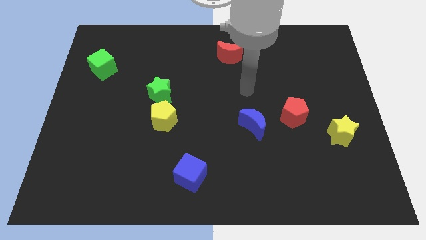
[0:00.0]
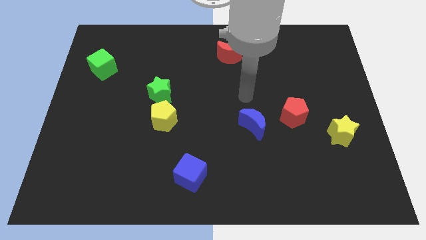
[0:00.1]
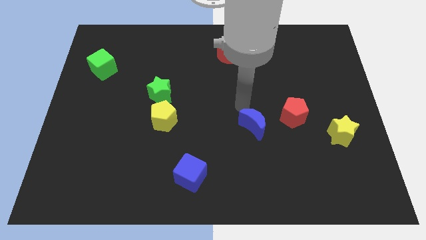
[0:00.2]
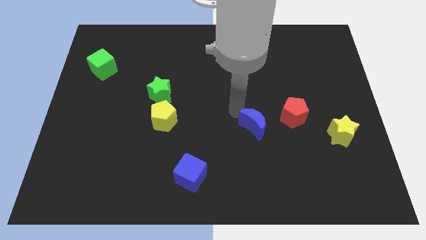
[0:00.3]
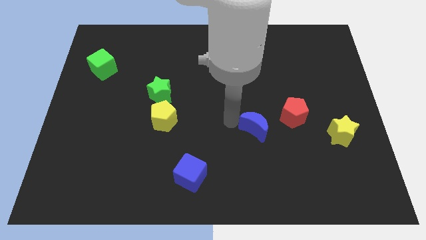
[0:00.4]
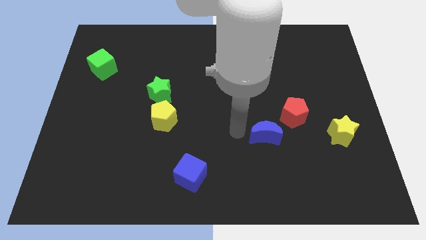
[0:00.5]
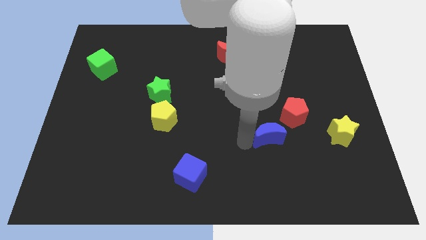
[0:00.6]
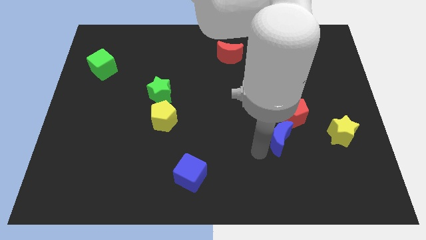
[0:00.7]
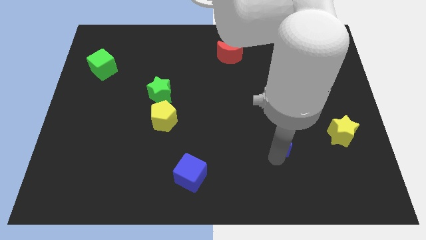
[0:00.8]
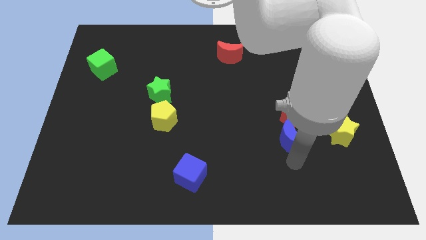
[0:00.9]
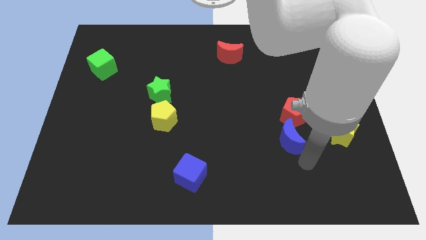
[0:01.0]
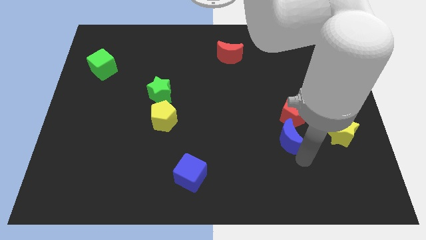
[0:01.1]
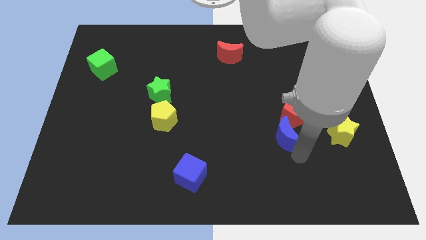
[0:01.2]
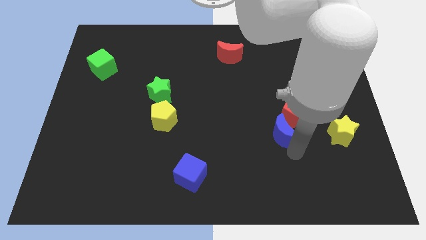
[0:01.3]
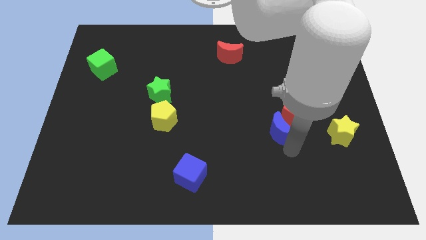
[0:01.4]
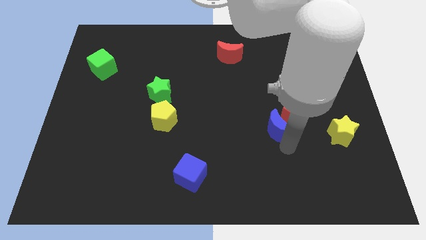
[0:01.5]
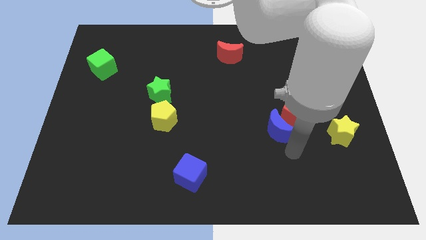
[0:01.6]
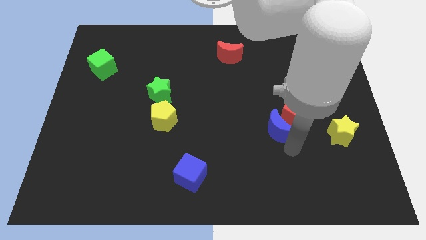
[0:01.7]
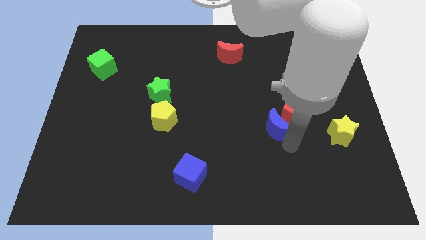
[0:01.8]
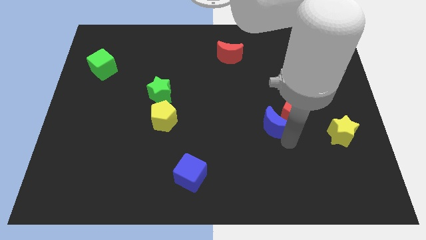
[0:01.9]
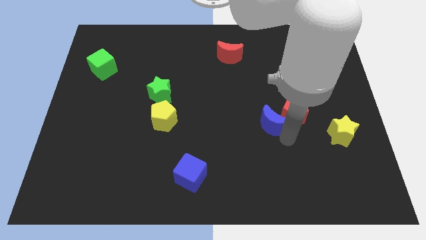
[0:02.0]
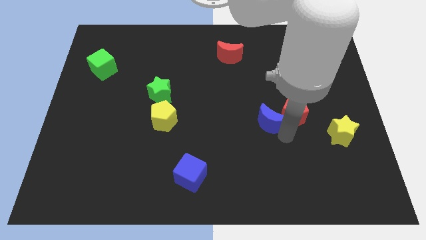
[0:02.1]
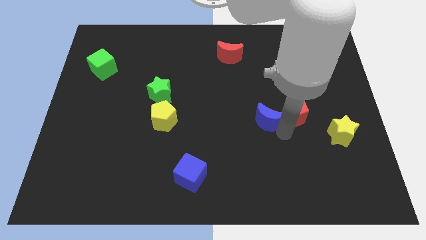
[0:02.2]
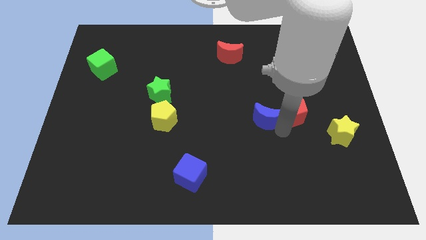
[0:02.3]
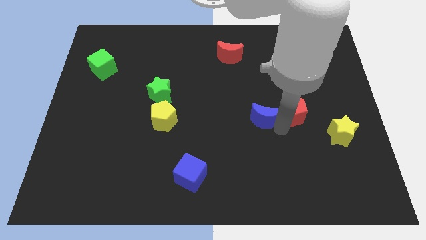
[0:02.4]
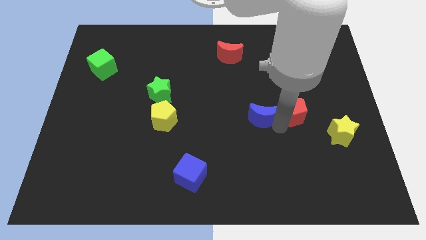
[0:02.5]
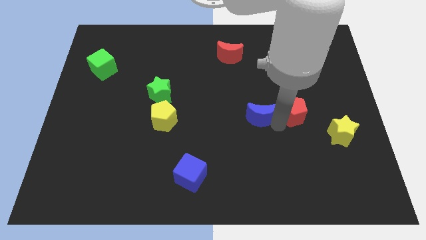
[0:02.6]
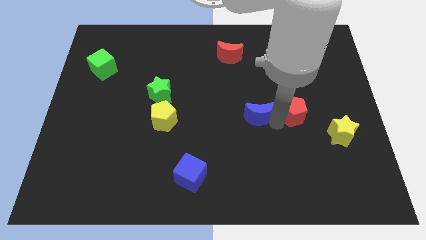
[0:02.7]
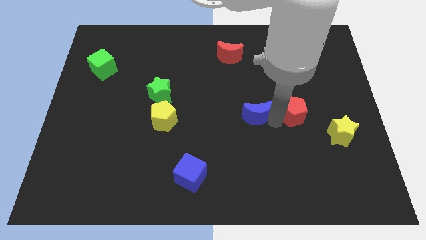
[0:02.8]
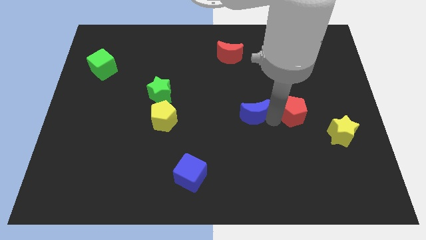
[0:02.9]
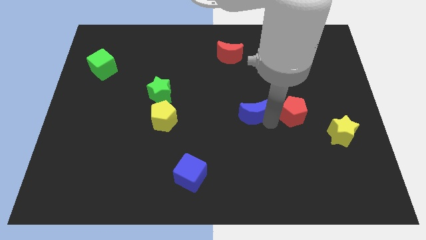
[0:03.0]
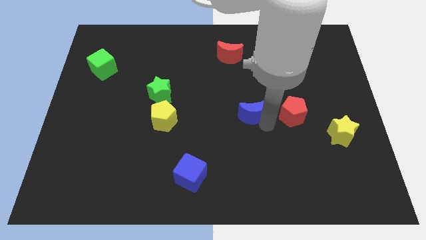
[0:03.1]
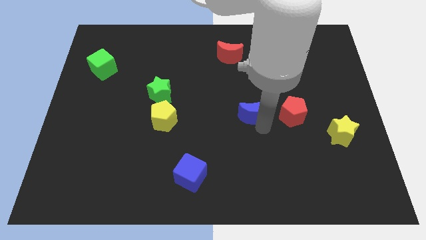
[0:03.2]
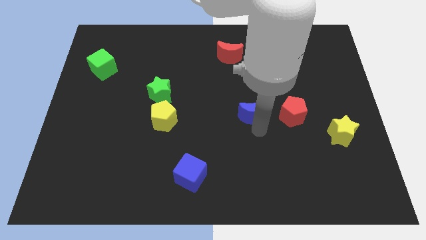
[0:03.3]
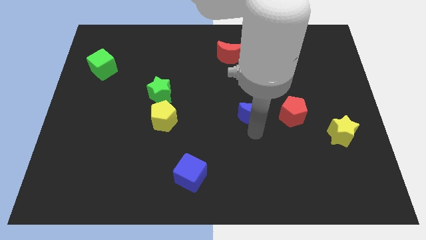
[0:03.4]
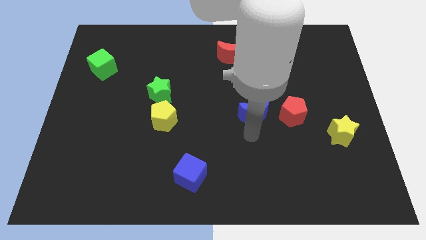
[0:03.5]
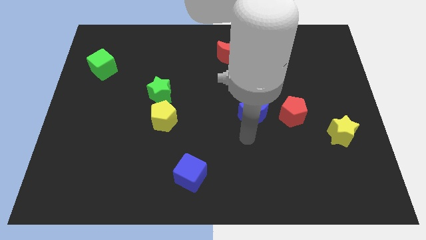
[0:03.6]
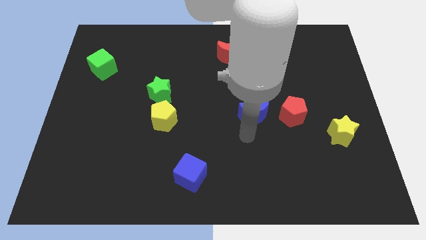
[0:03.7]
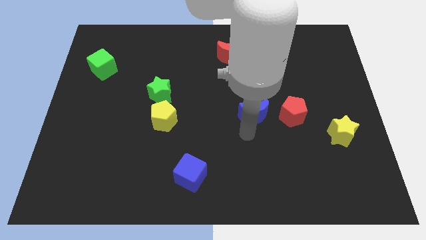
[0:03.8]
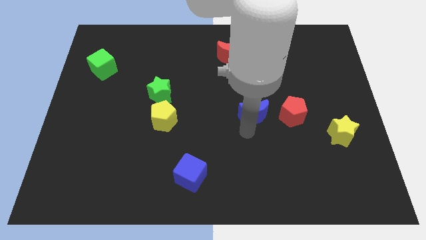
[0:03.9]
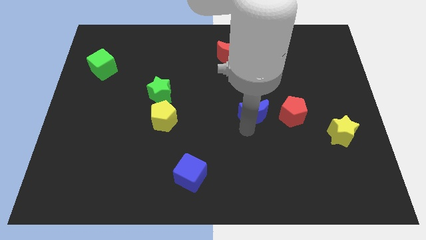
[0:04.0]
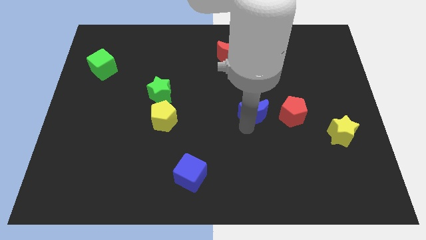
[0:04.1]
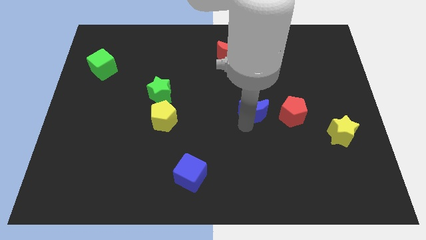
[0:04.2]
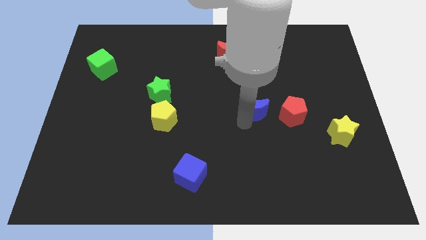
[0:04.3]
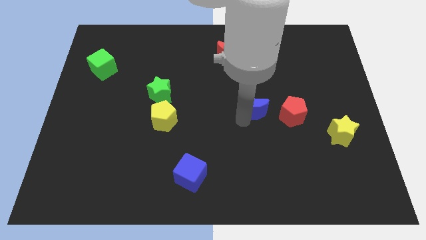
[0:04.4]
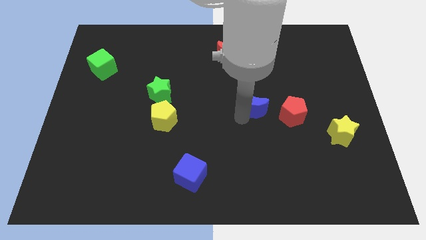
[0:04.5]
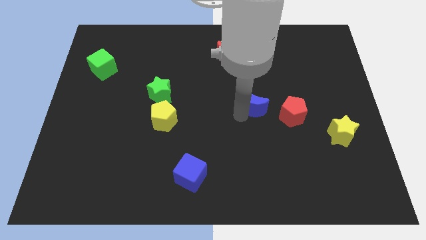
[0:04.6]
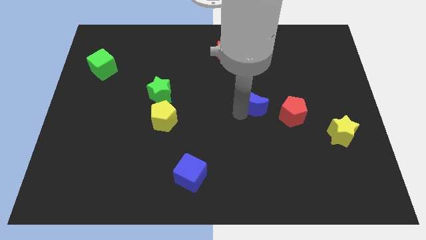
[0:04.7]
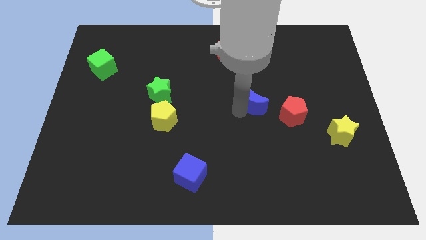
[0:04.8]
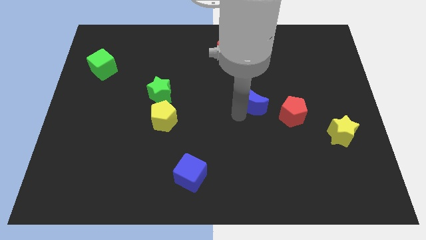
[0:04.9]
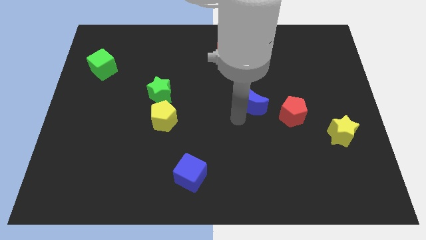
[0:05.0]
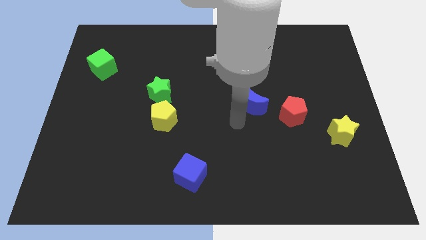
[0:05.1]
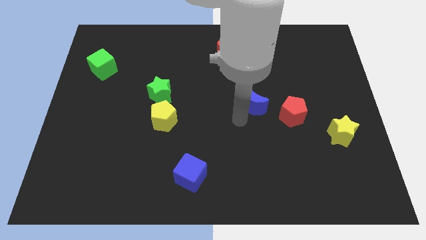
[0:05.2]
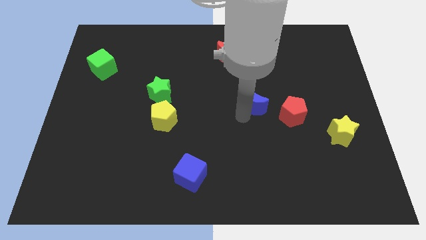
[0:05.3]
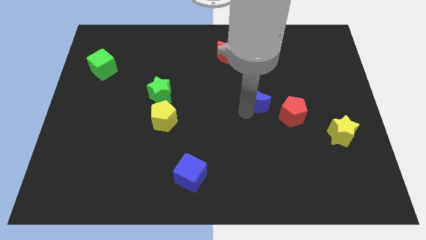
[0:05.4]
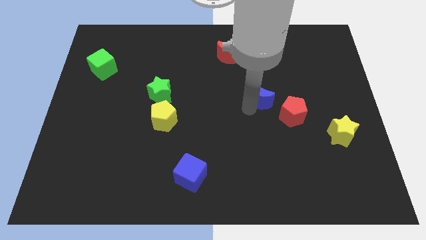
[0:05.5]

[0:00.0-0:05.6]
push the blue moon slightly up

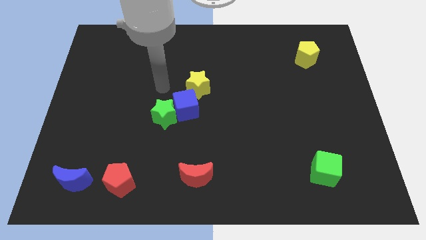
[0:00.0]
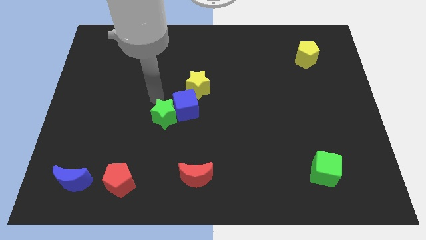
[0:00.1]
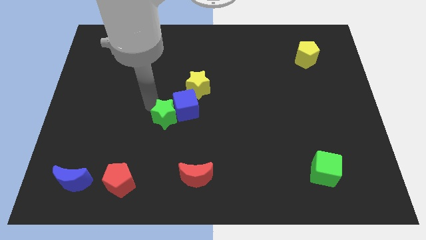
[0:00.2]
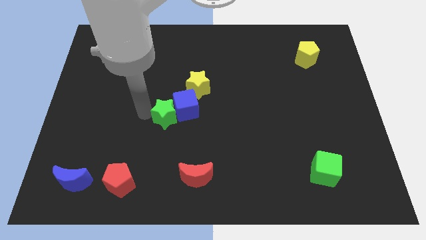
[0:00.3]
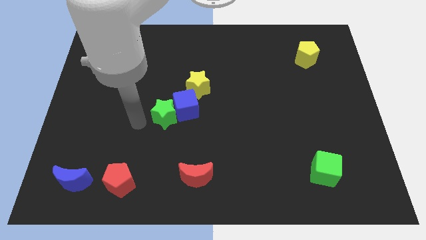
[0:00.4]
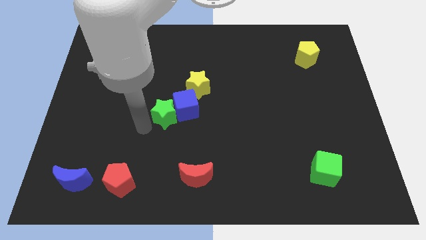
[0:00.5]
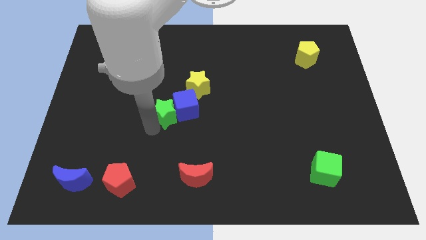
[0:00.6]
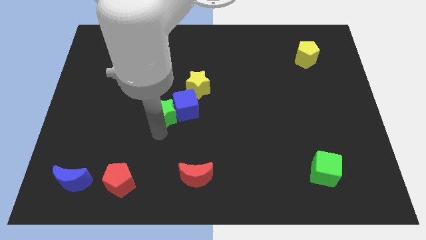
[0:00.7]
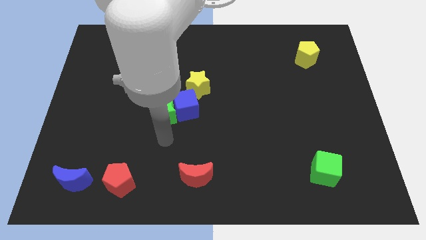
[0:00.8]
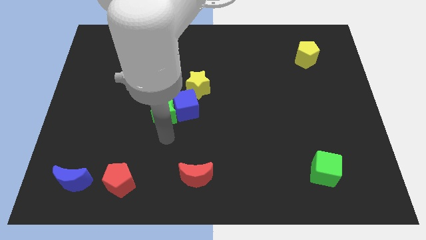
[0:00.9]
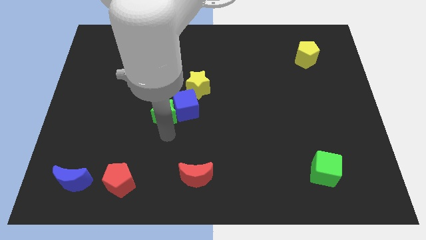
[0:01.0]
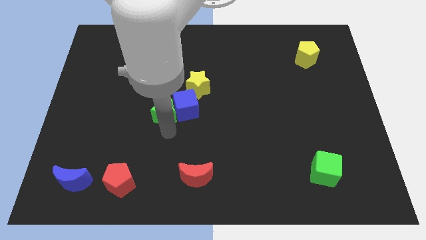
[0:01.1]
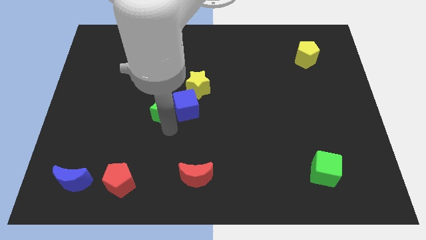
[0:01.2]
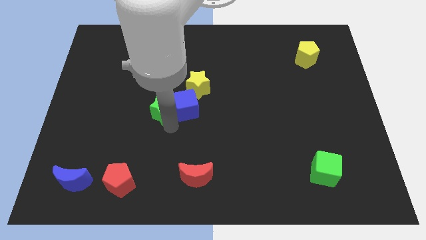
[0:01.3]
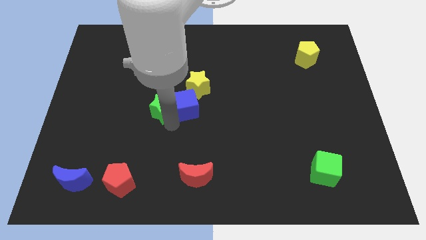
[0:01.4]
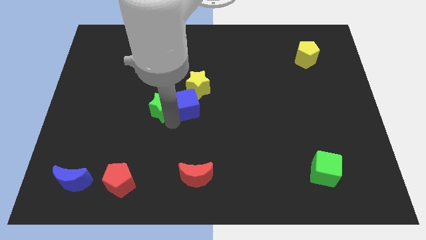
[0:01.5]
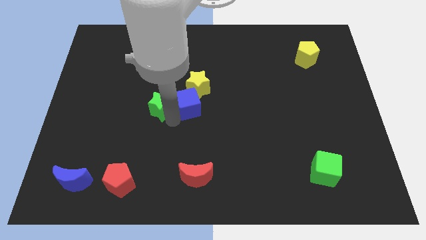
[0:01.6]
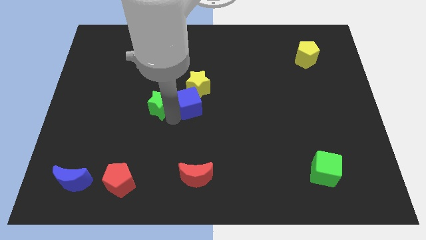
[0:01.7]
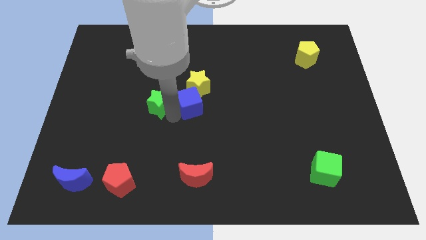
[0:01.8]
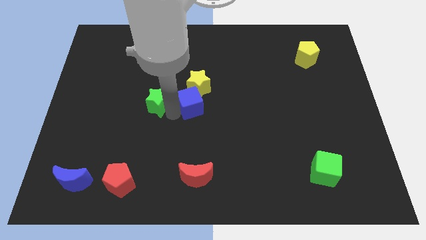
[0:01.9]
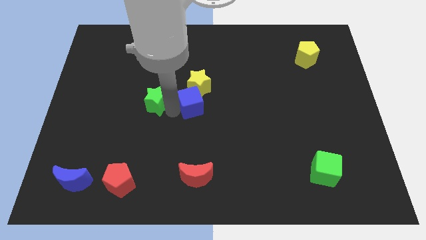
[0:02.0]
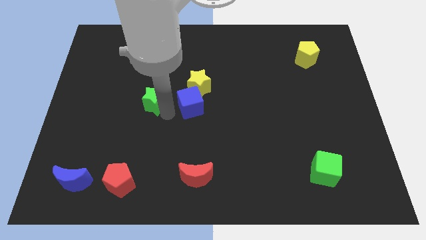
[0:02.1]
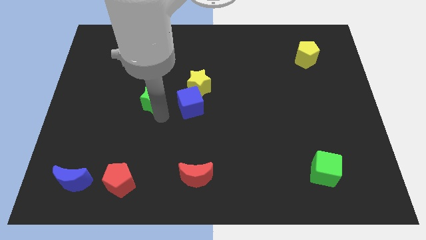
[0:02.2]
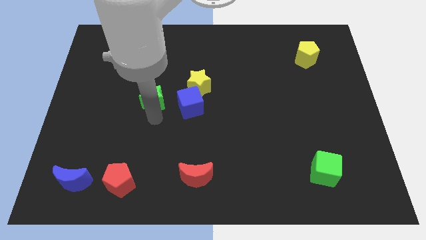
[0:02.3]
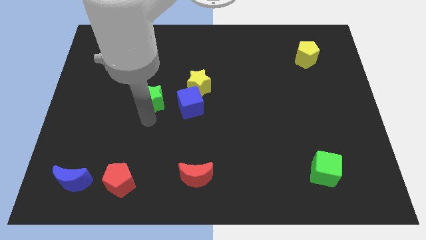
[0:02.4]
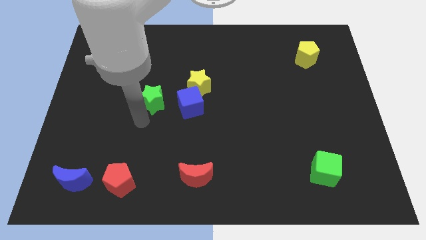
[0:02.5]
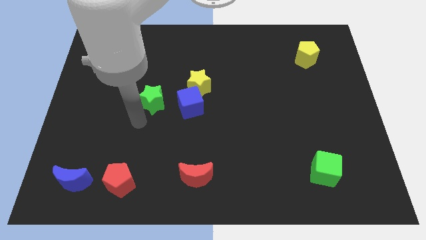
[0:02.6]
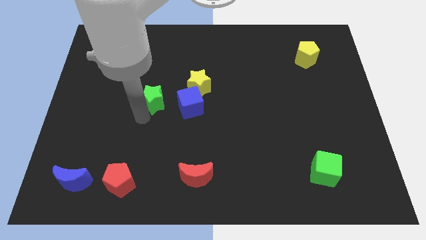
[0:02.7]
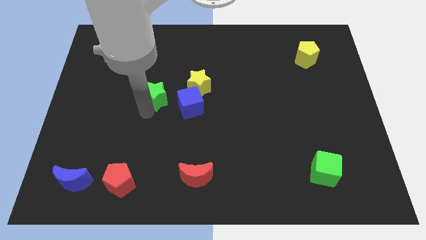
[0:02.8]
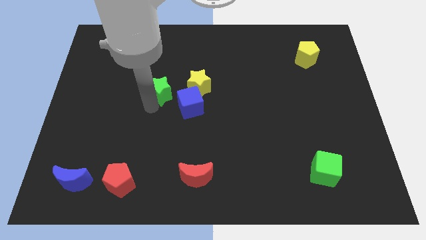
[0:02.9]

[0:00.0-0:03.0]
slide the green star up a little
